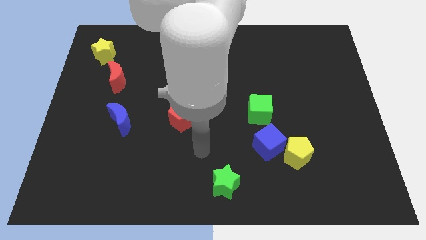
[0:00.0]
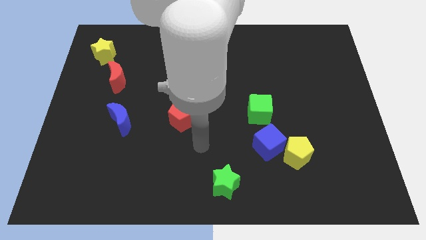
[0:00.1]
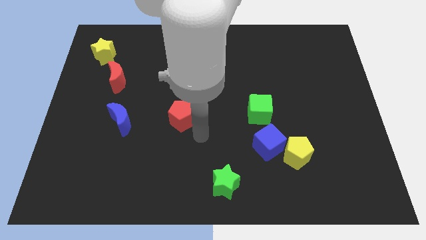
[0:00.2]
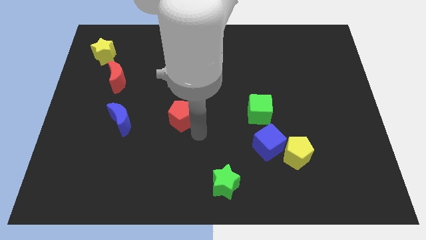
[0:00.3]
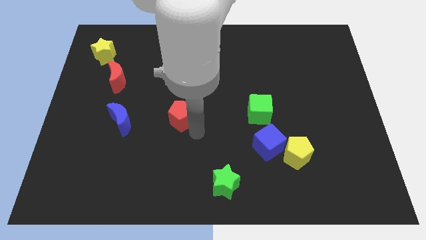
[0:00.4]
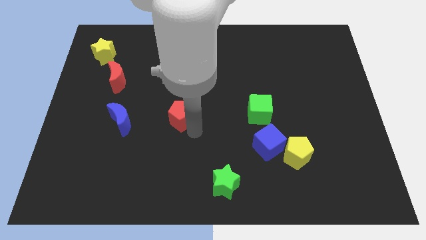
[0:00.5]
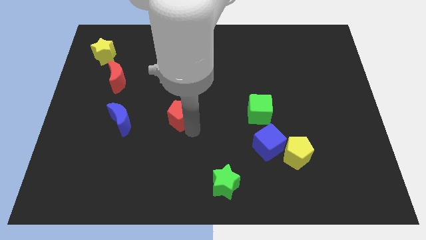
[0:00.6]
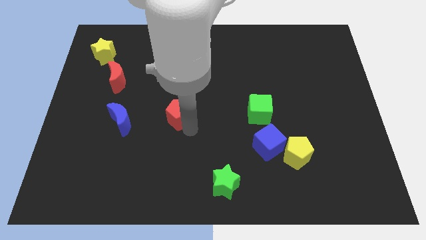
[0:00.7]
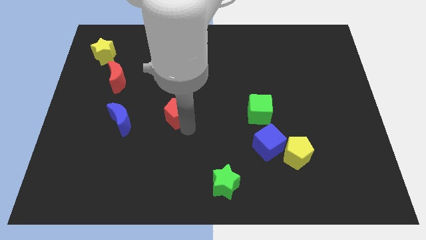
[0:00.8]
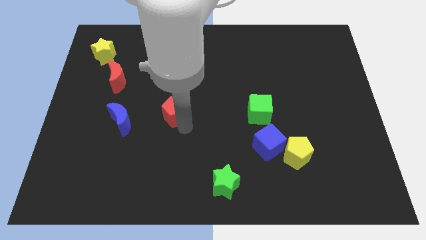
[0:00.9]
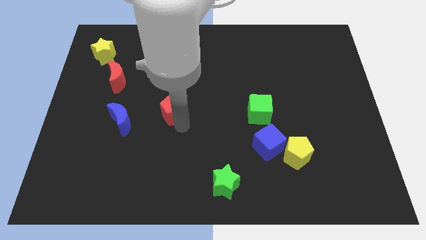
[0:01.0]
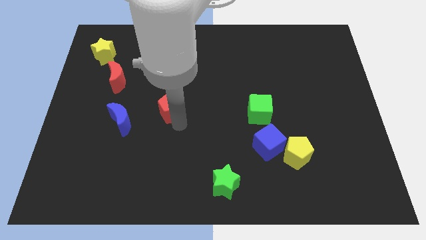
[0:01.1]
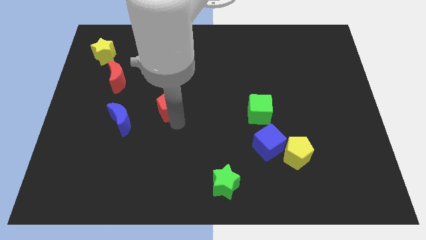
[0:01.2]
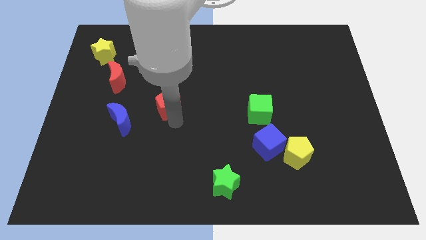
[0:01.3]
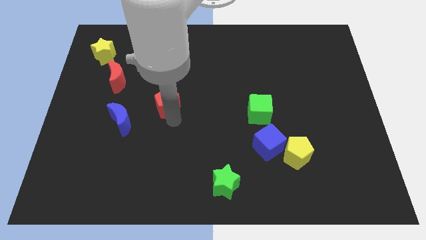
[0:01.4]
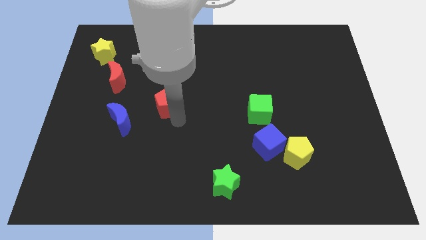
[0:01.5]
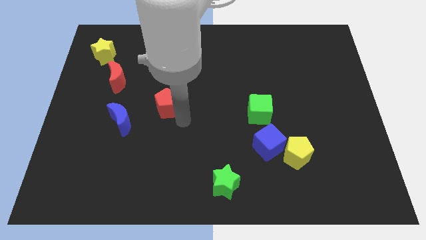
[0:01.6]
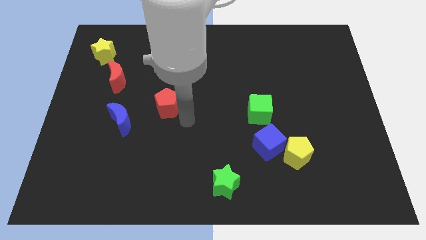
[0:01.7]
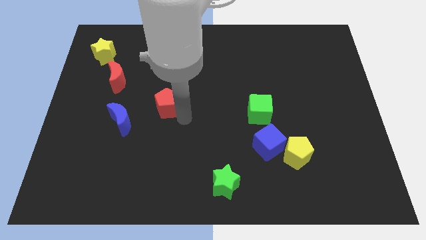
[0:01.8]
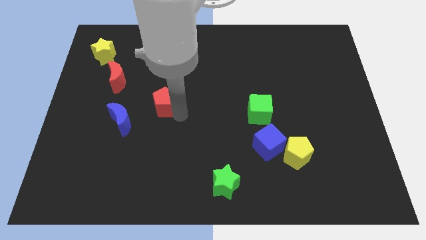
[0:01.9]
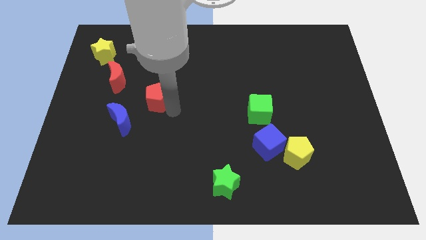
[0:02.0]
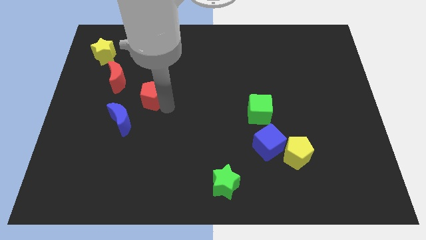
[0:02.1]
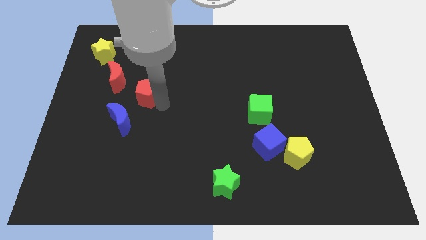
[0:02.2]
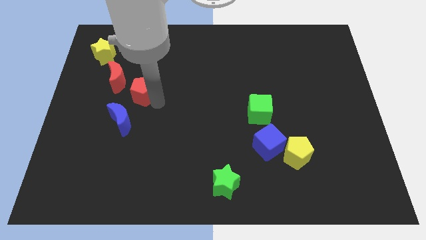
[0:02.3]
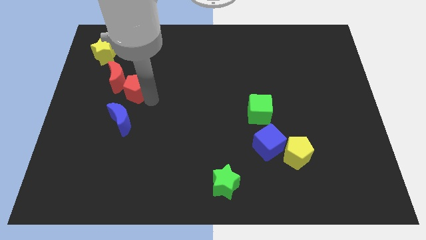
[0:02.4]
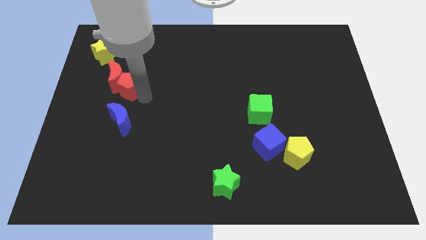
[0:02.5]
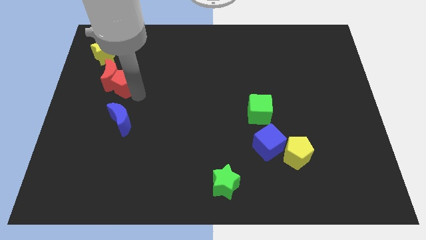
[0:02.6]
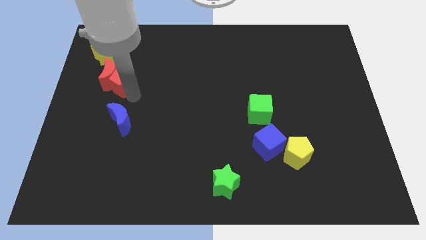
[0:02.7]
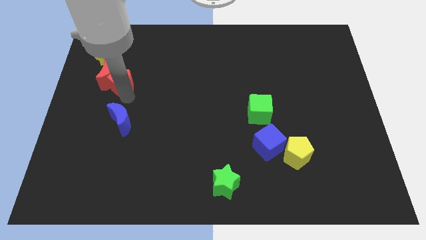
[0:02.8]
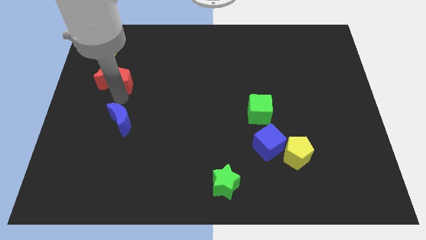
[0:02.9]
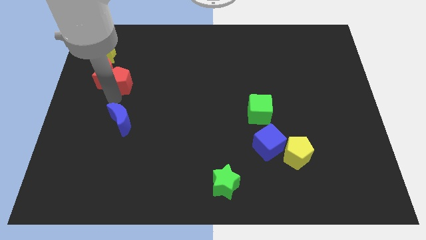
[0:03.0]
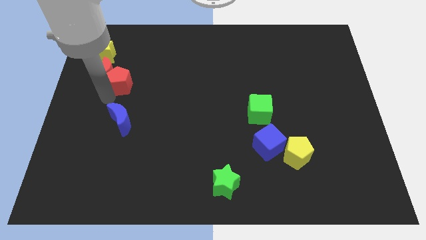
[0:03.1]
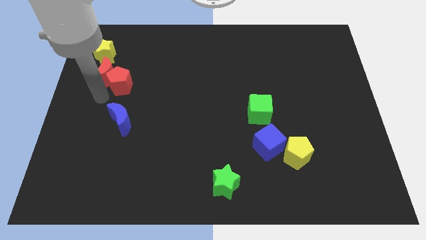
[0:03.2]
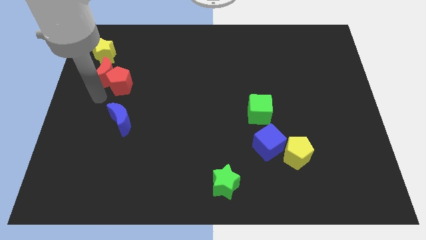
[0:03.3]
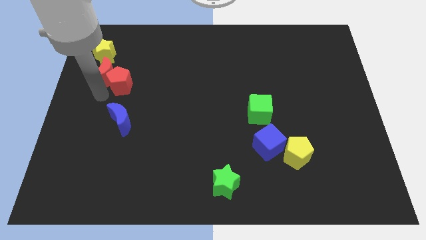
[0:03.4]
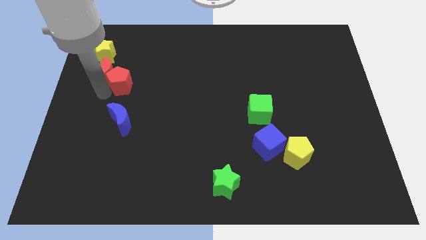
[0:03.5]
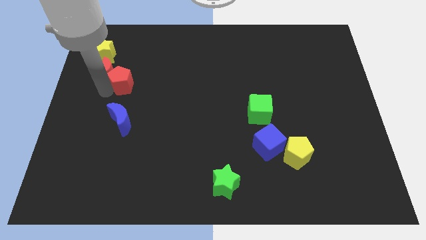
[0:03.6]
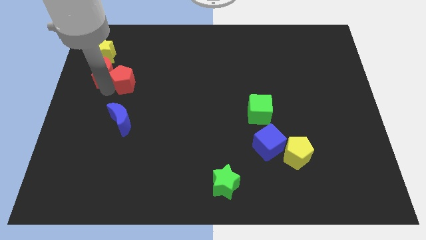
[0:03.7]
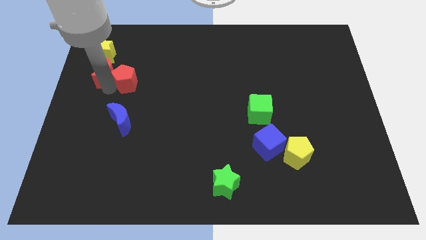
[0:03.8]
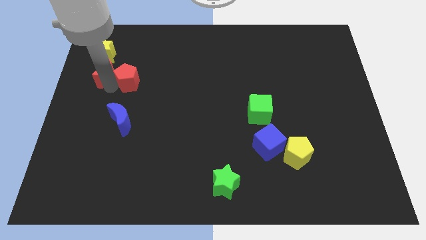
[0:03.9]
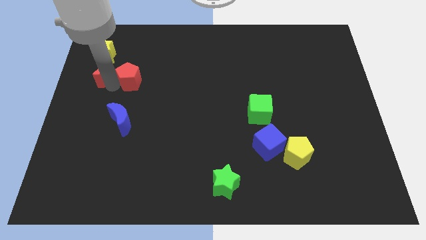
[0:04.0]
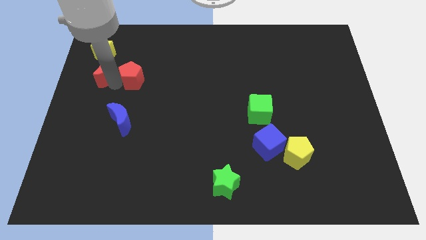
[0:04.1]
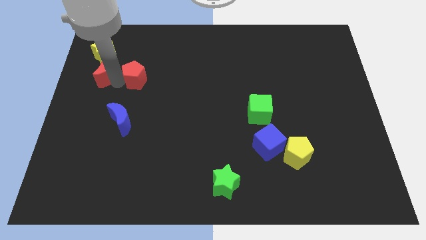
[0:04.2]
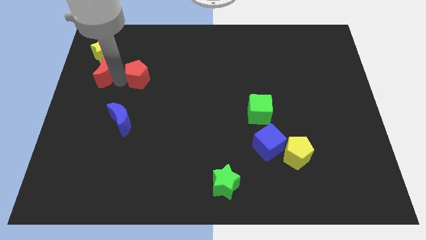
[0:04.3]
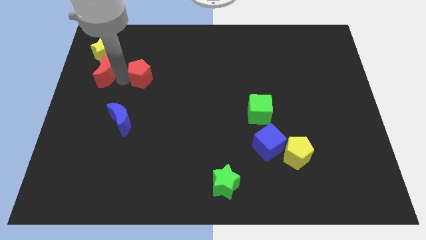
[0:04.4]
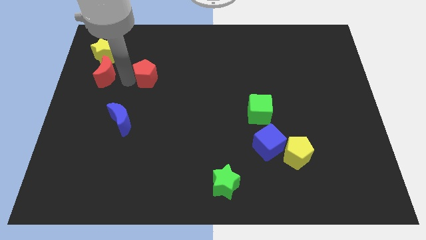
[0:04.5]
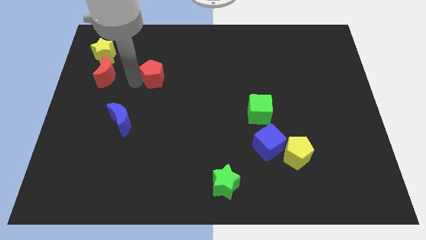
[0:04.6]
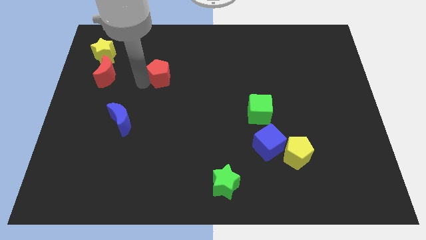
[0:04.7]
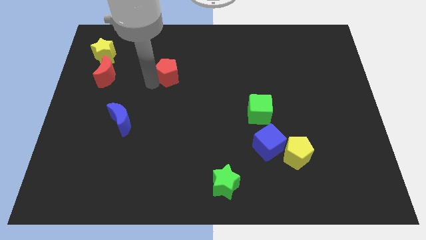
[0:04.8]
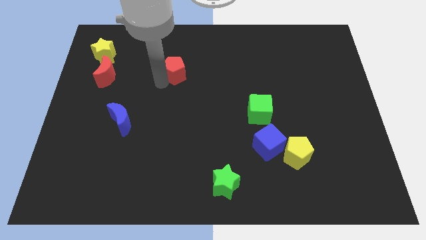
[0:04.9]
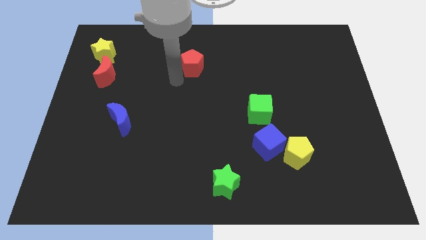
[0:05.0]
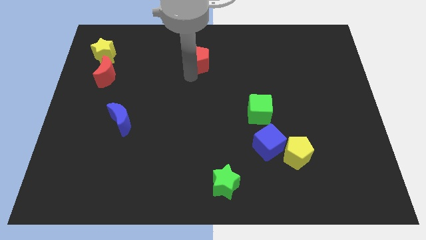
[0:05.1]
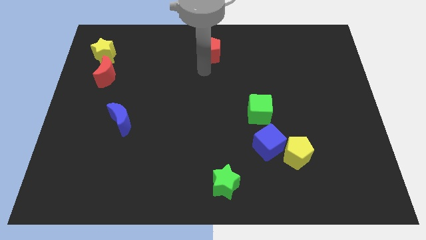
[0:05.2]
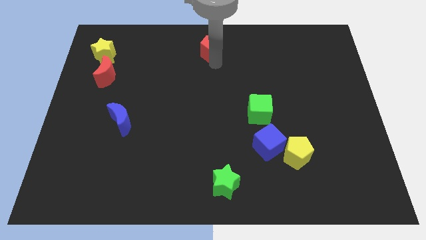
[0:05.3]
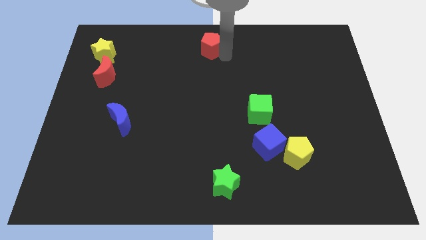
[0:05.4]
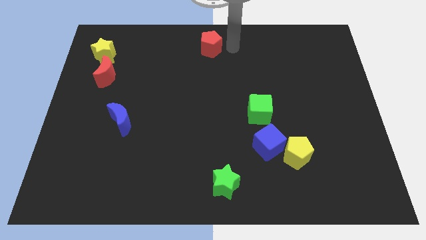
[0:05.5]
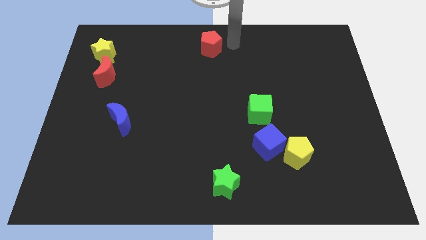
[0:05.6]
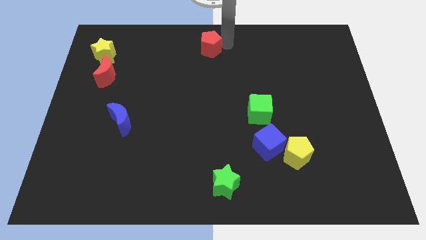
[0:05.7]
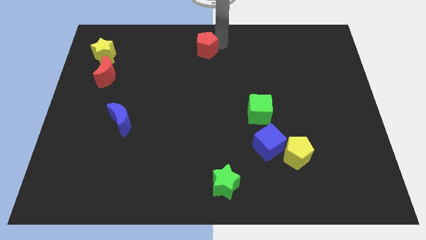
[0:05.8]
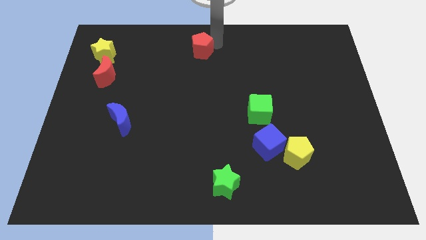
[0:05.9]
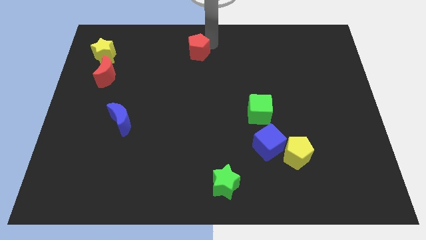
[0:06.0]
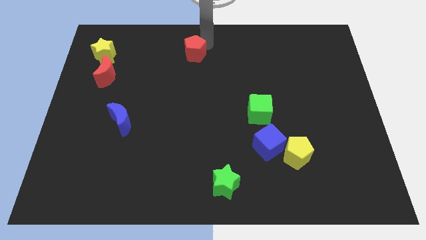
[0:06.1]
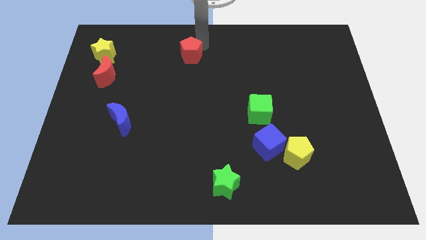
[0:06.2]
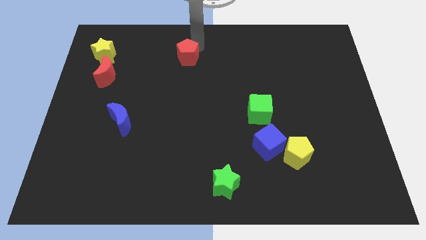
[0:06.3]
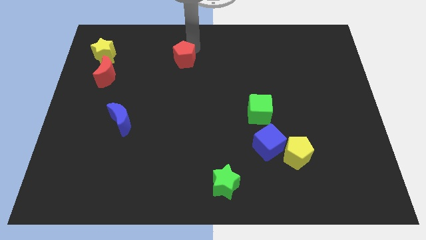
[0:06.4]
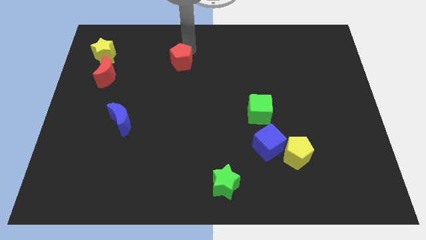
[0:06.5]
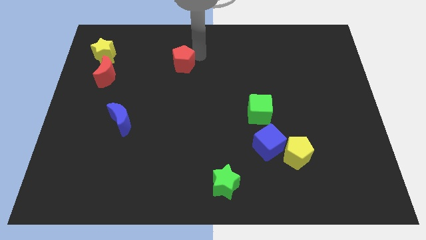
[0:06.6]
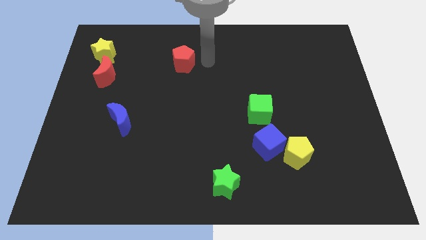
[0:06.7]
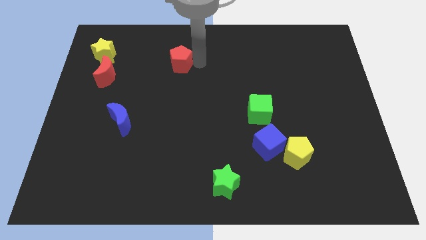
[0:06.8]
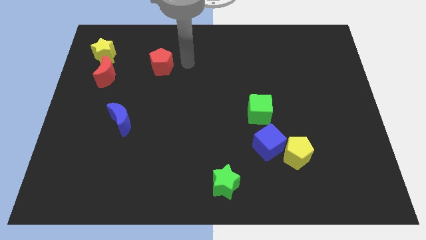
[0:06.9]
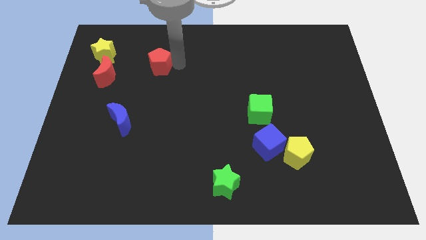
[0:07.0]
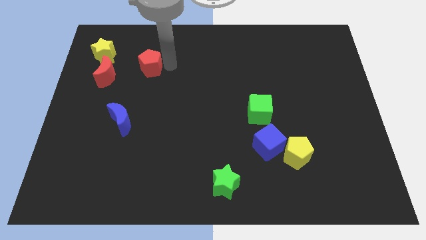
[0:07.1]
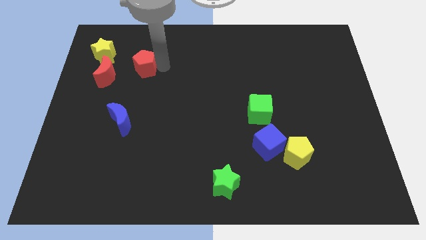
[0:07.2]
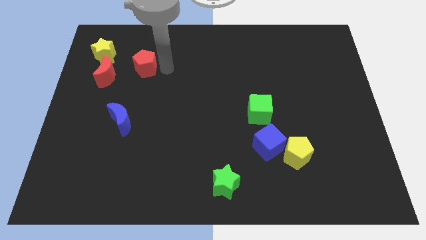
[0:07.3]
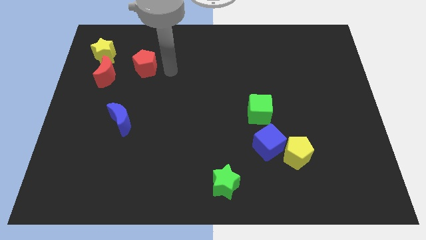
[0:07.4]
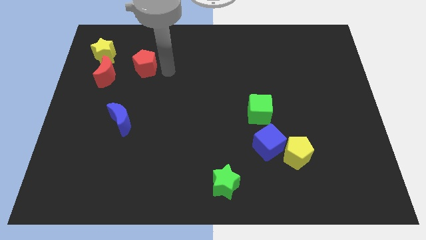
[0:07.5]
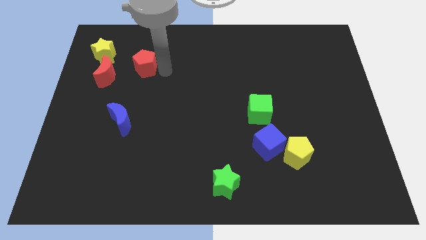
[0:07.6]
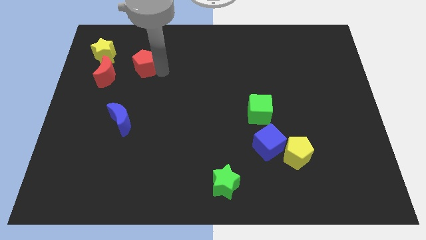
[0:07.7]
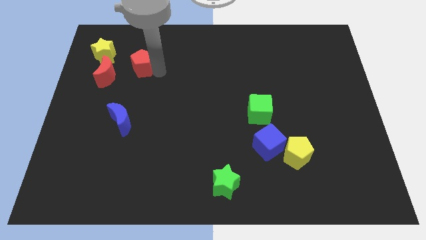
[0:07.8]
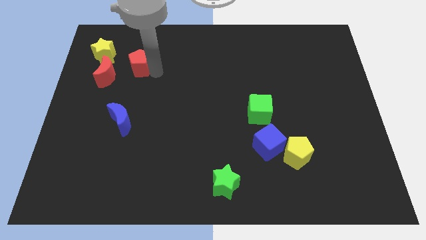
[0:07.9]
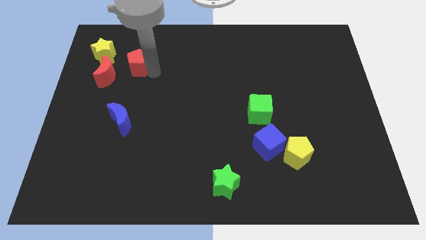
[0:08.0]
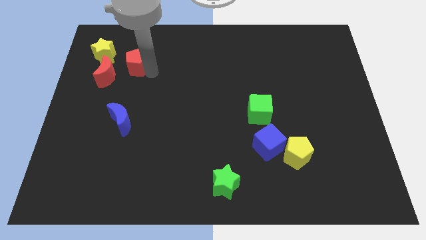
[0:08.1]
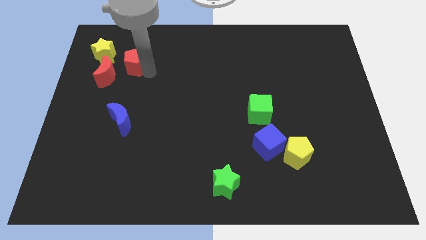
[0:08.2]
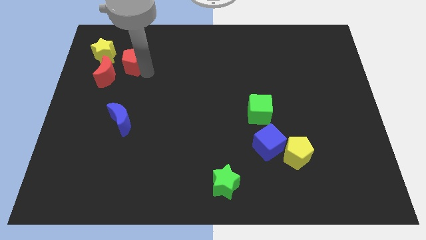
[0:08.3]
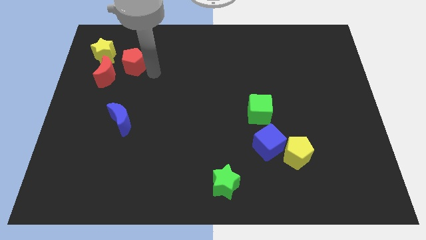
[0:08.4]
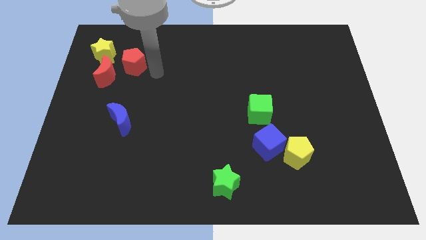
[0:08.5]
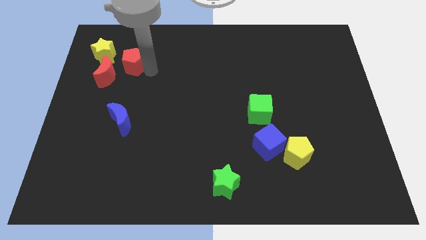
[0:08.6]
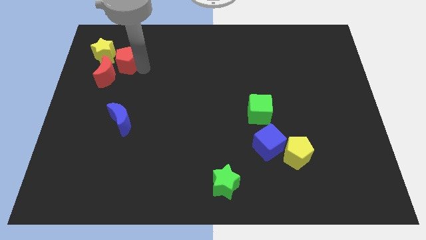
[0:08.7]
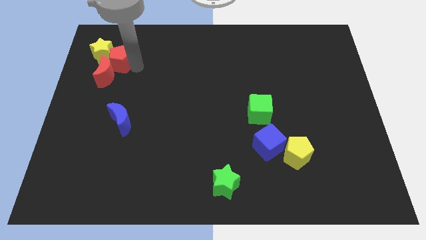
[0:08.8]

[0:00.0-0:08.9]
put the red pentagon to the yellow star
